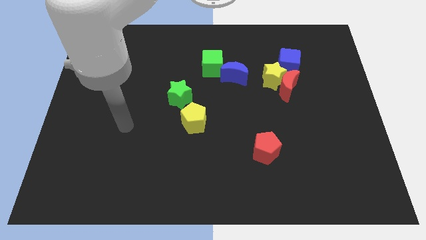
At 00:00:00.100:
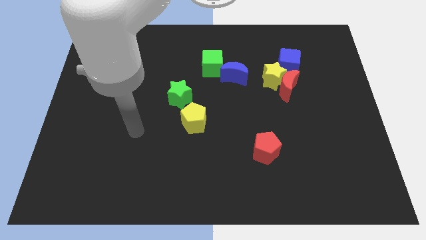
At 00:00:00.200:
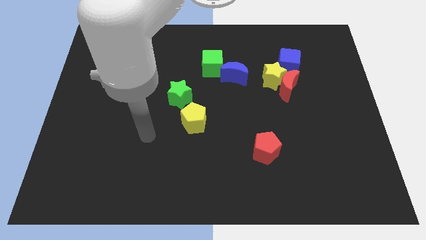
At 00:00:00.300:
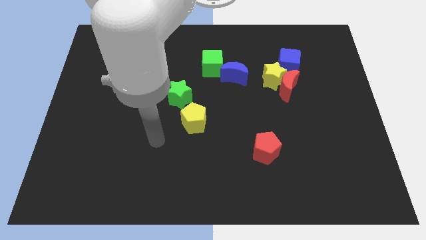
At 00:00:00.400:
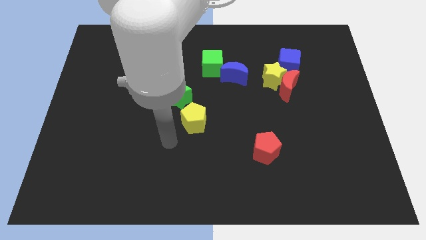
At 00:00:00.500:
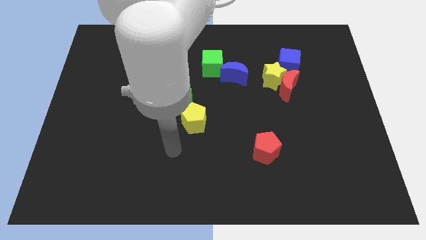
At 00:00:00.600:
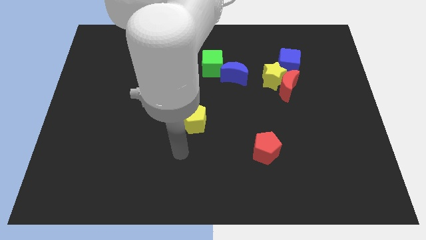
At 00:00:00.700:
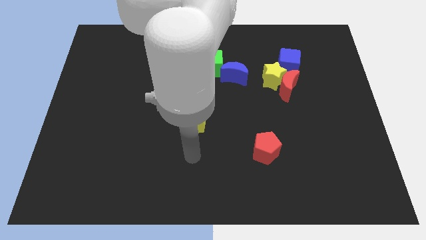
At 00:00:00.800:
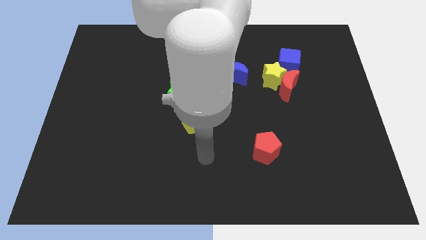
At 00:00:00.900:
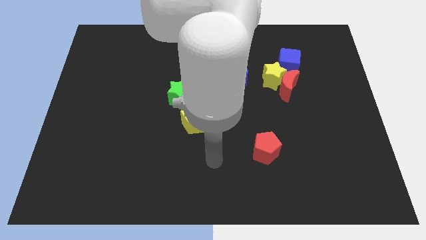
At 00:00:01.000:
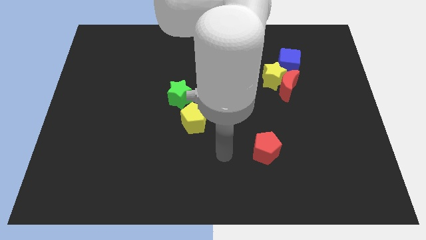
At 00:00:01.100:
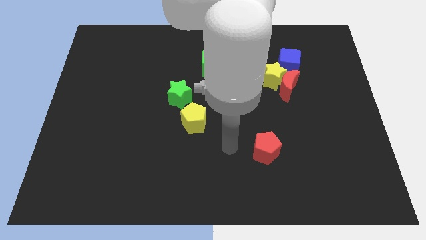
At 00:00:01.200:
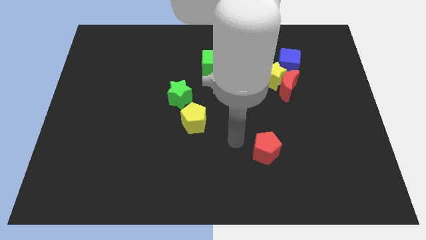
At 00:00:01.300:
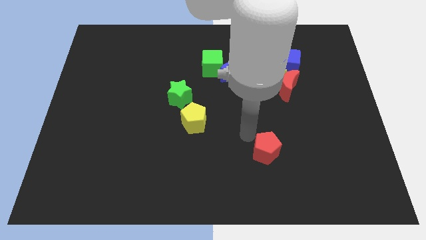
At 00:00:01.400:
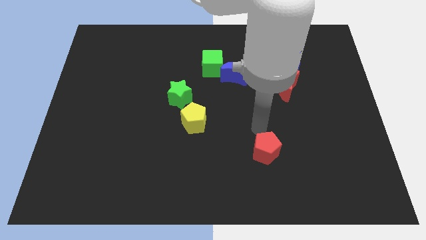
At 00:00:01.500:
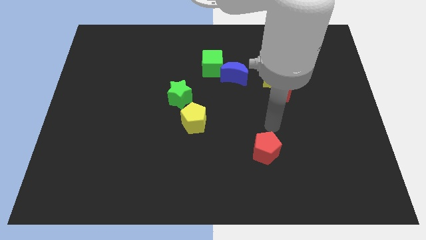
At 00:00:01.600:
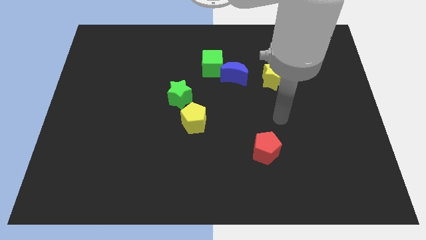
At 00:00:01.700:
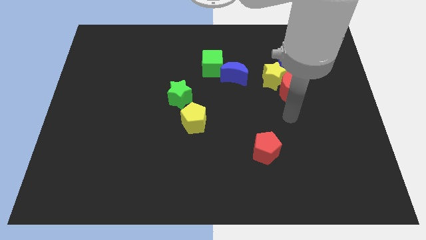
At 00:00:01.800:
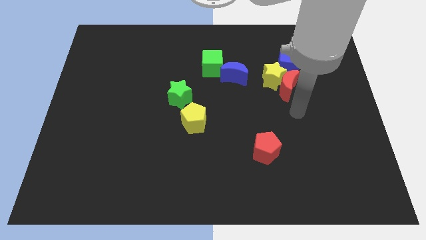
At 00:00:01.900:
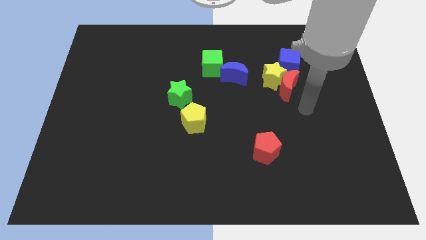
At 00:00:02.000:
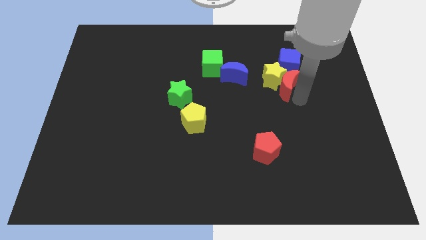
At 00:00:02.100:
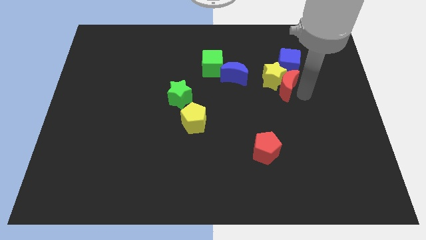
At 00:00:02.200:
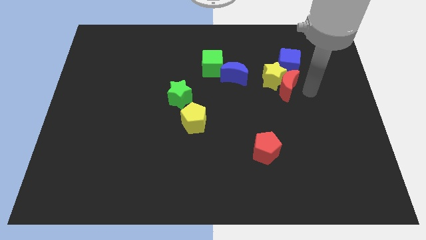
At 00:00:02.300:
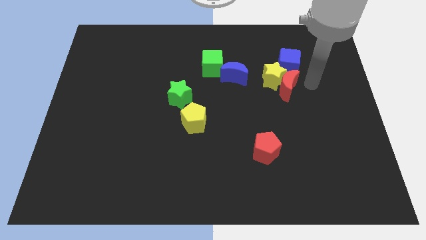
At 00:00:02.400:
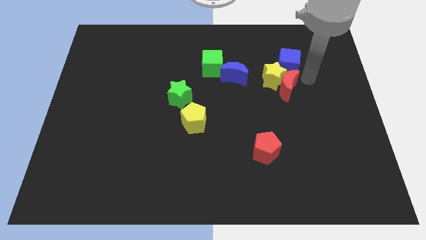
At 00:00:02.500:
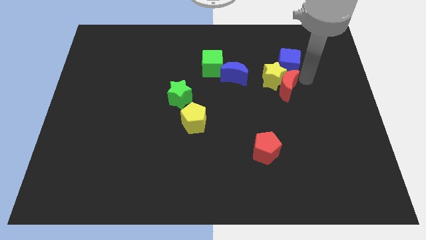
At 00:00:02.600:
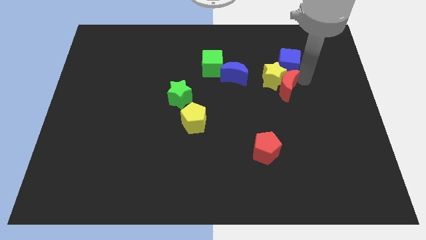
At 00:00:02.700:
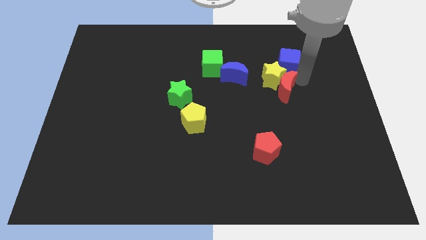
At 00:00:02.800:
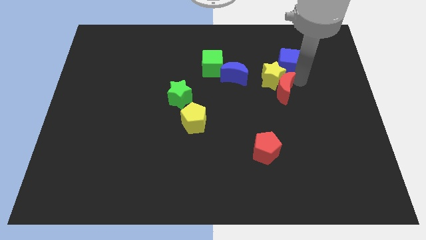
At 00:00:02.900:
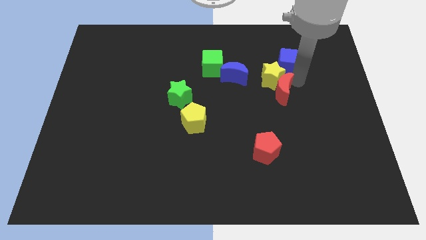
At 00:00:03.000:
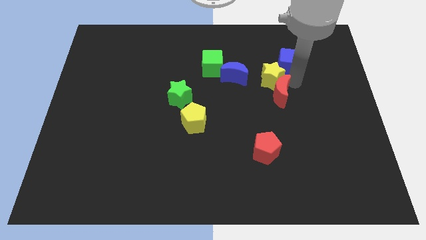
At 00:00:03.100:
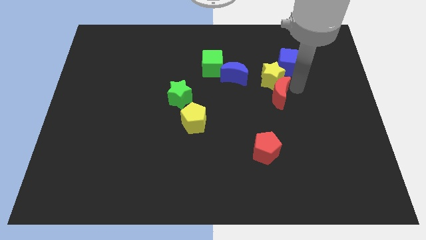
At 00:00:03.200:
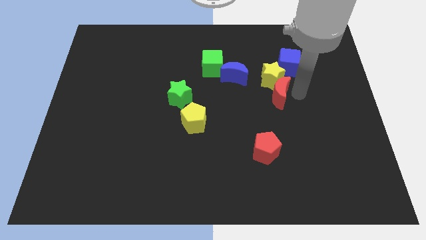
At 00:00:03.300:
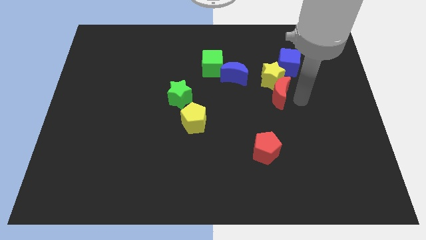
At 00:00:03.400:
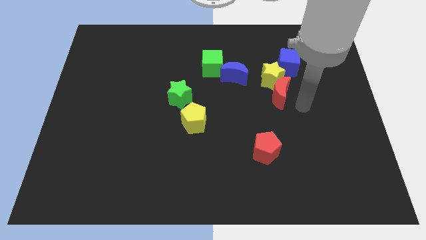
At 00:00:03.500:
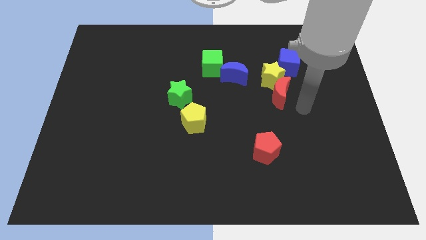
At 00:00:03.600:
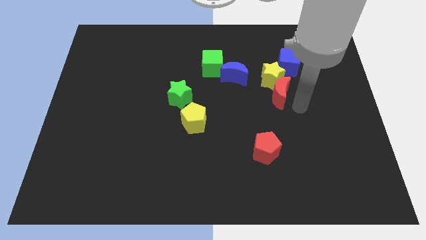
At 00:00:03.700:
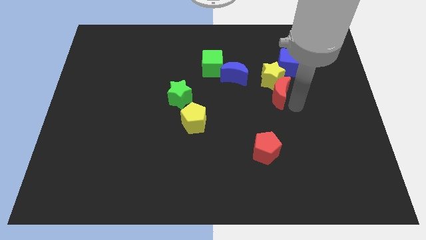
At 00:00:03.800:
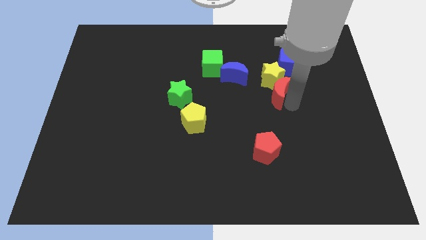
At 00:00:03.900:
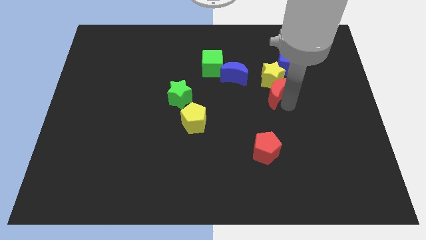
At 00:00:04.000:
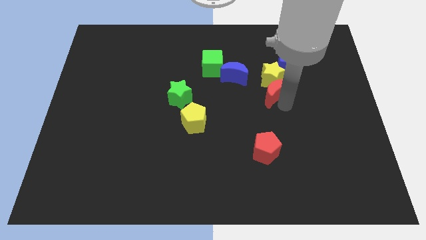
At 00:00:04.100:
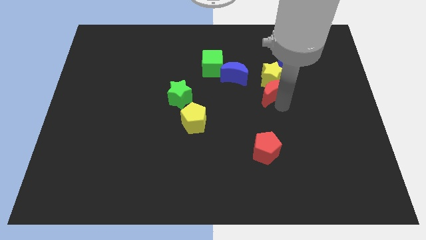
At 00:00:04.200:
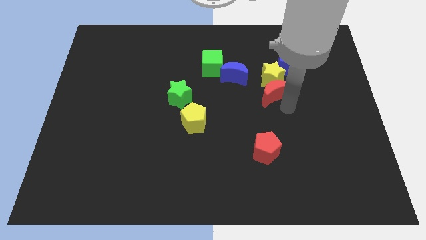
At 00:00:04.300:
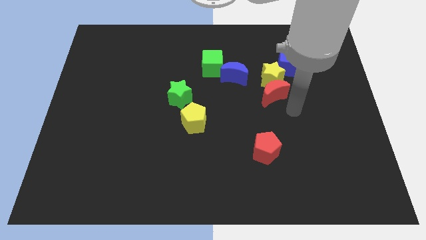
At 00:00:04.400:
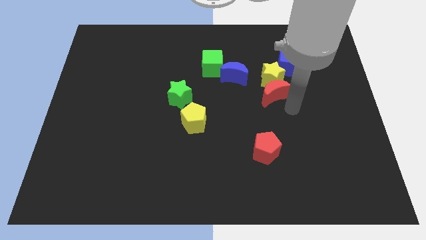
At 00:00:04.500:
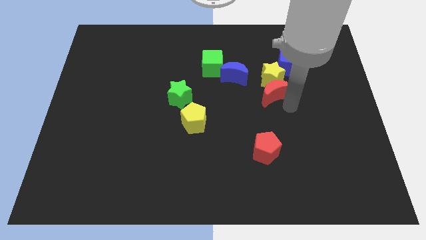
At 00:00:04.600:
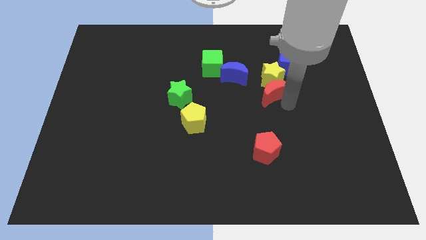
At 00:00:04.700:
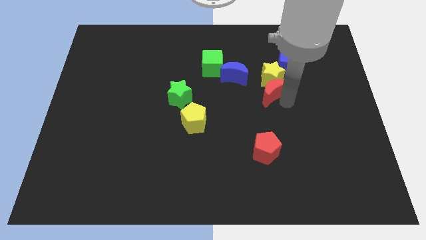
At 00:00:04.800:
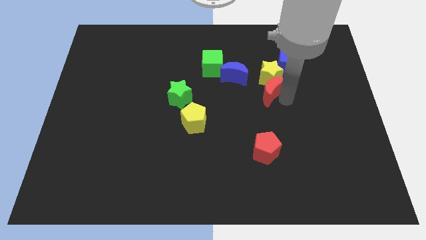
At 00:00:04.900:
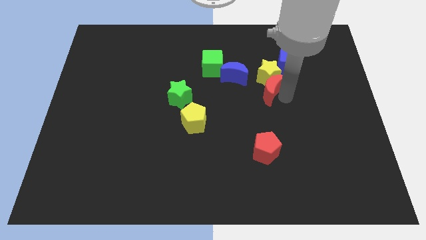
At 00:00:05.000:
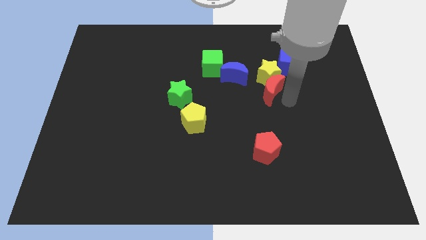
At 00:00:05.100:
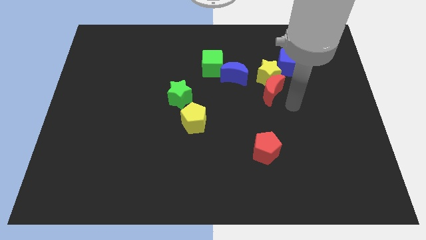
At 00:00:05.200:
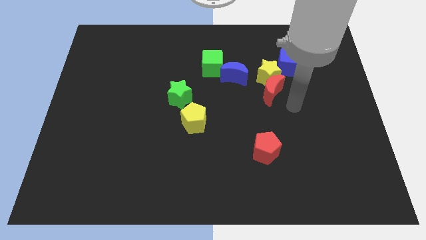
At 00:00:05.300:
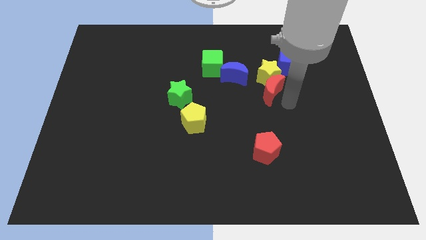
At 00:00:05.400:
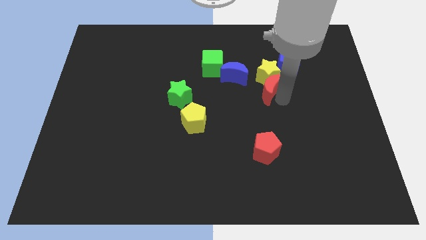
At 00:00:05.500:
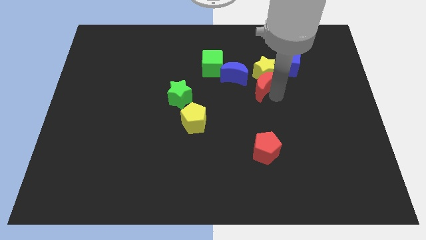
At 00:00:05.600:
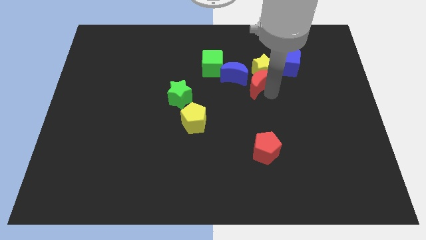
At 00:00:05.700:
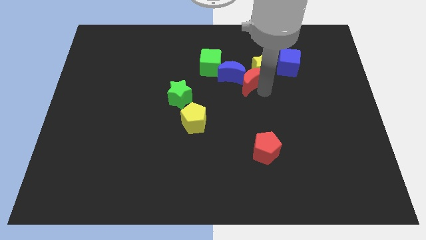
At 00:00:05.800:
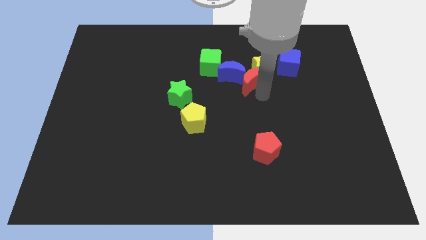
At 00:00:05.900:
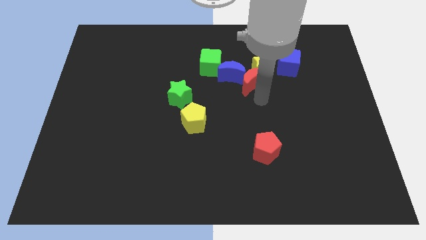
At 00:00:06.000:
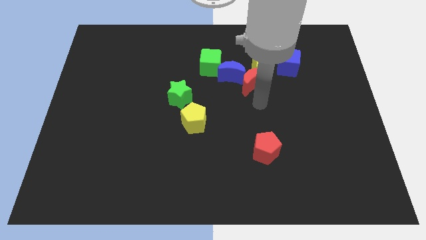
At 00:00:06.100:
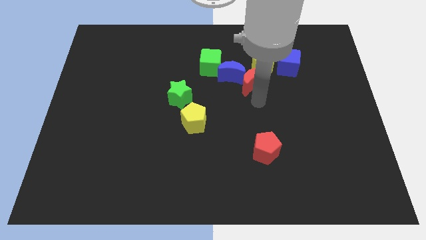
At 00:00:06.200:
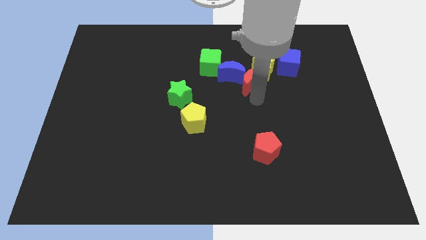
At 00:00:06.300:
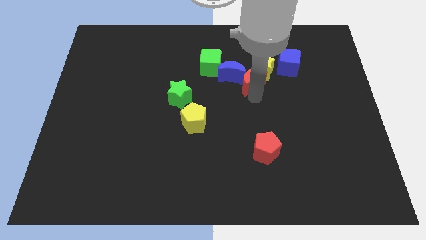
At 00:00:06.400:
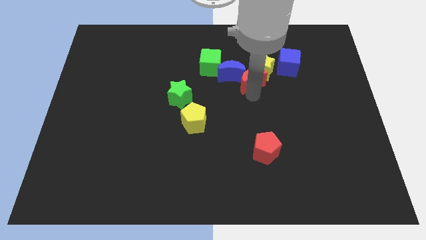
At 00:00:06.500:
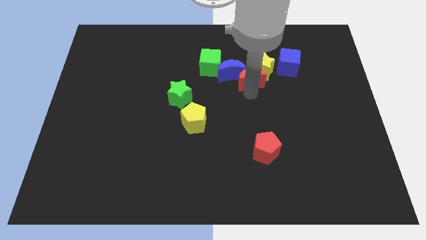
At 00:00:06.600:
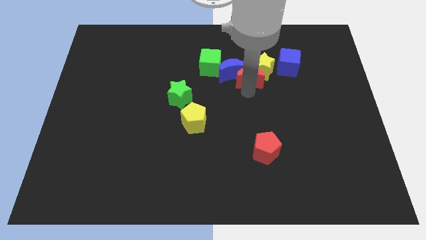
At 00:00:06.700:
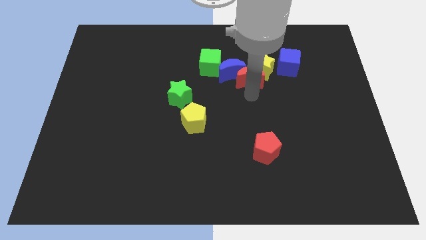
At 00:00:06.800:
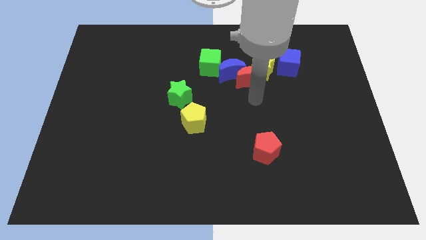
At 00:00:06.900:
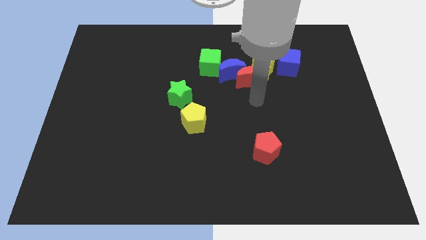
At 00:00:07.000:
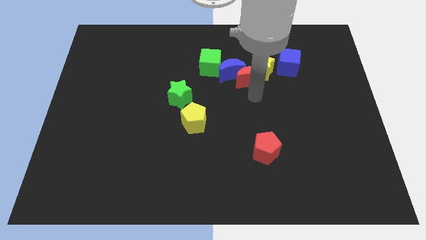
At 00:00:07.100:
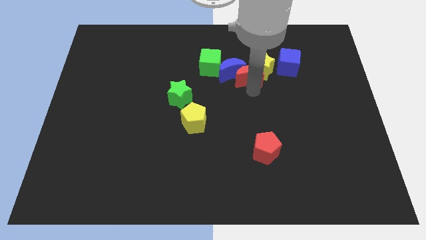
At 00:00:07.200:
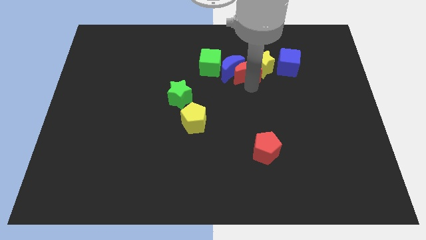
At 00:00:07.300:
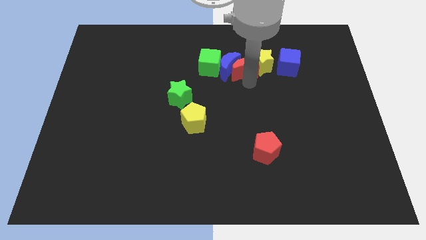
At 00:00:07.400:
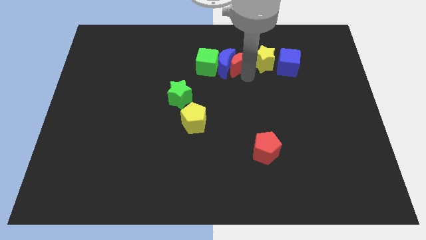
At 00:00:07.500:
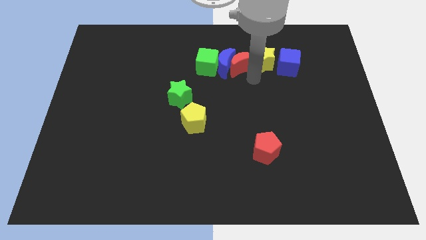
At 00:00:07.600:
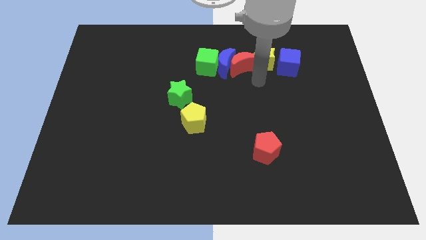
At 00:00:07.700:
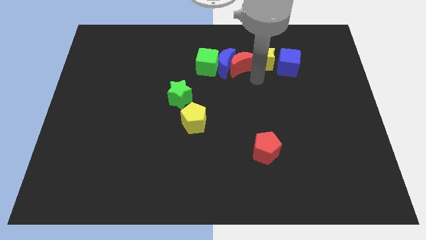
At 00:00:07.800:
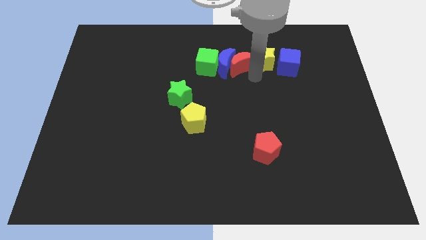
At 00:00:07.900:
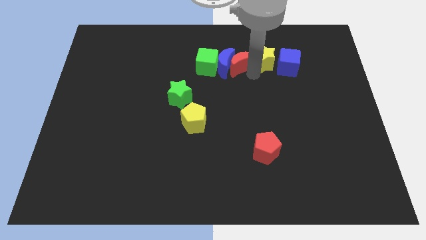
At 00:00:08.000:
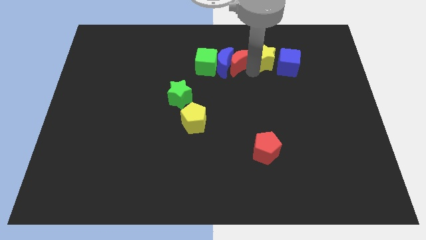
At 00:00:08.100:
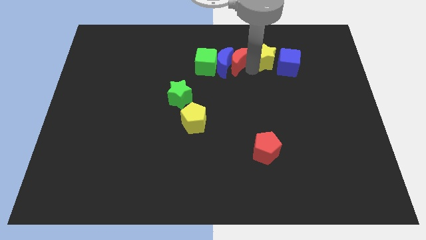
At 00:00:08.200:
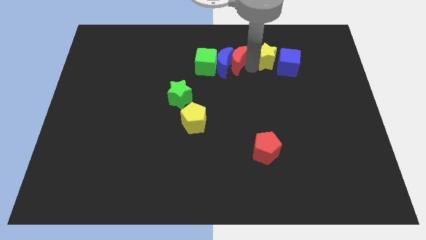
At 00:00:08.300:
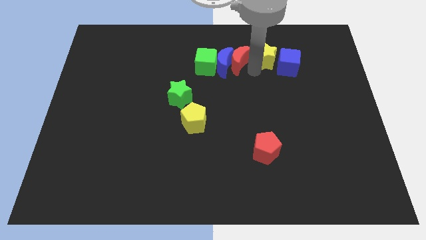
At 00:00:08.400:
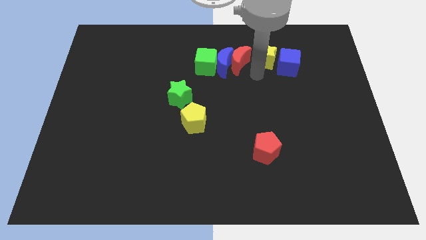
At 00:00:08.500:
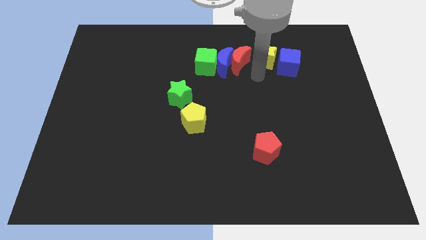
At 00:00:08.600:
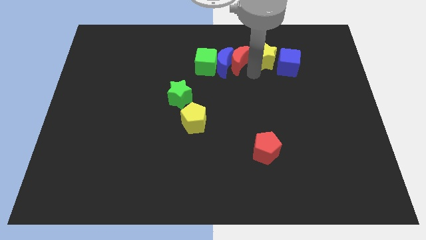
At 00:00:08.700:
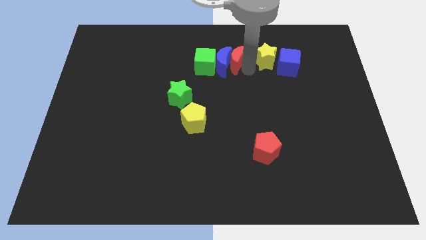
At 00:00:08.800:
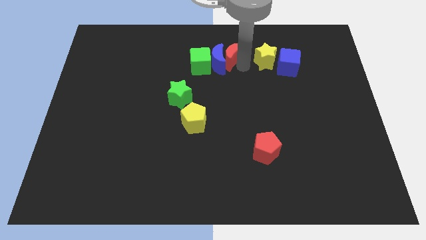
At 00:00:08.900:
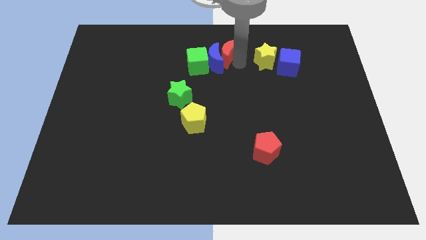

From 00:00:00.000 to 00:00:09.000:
move the red moon to the top
